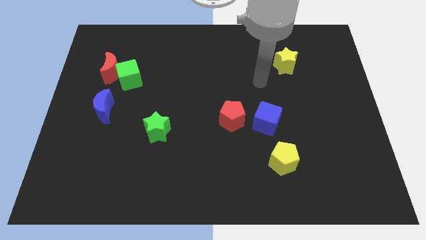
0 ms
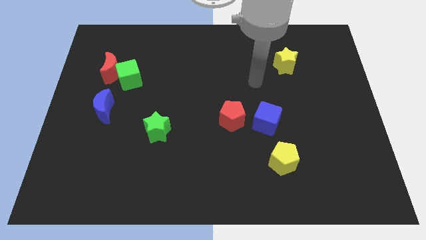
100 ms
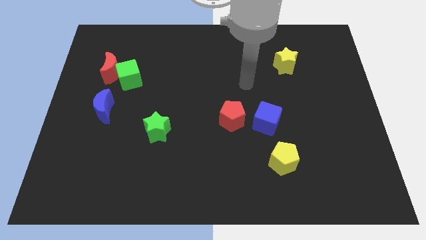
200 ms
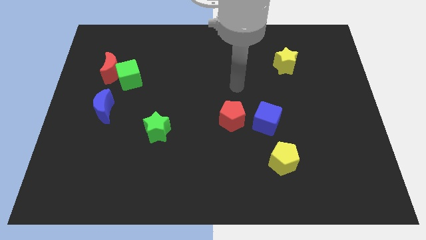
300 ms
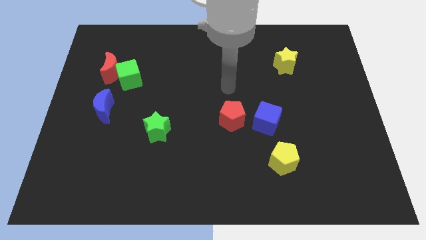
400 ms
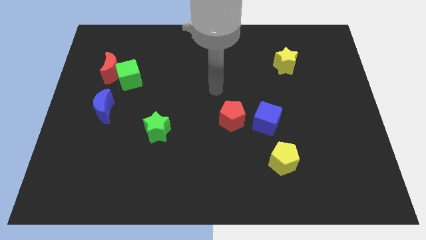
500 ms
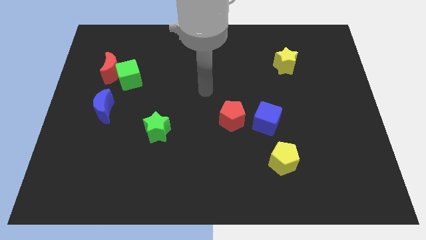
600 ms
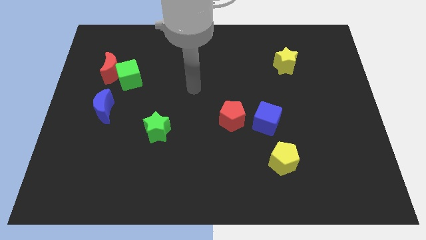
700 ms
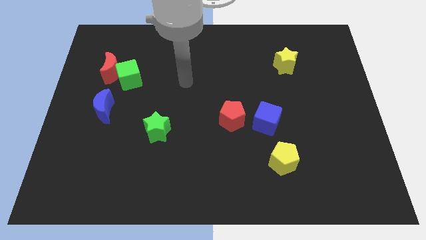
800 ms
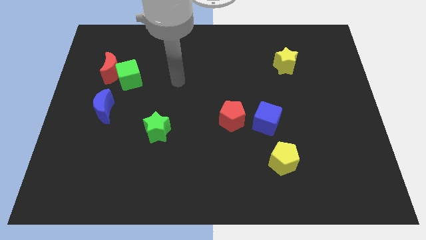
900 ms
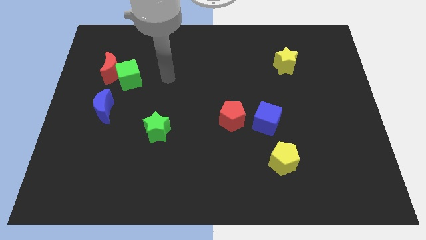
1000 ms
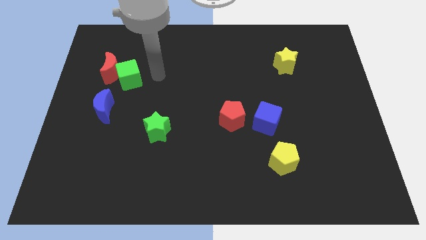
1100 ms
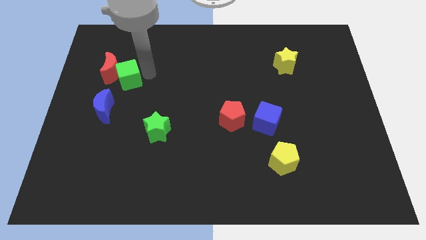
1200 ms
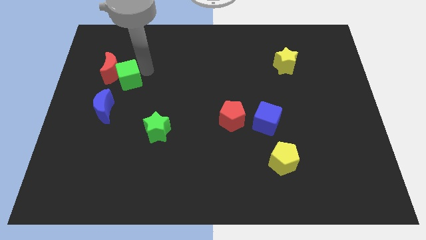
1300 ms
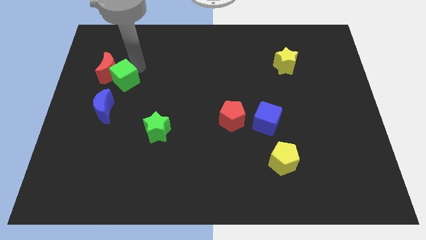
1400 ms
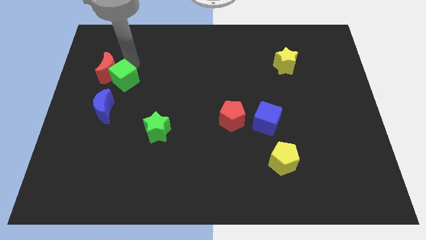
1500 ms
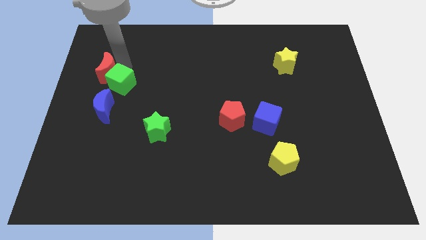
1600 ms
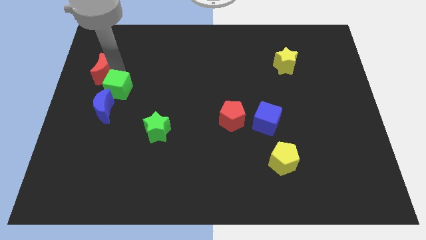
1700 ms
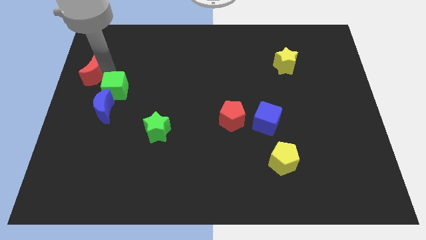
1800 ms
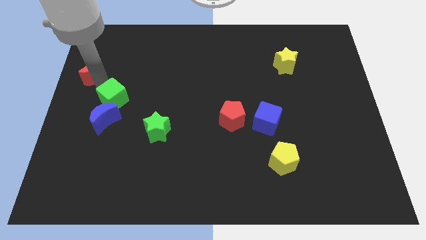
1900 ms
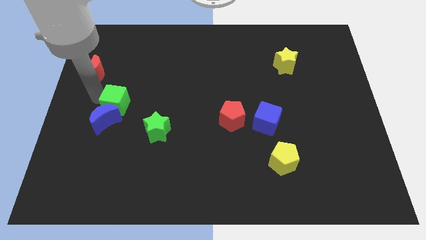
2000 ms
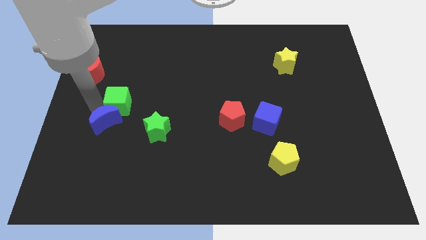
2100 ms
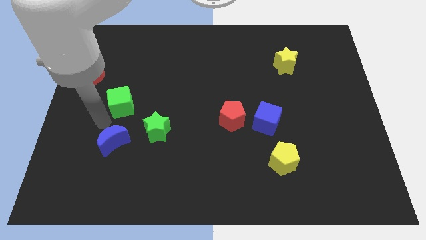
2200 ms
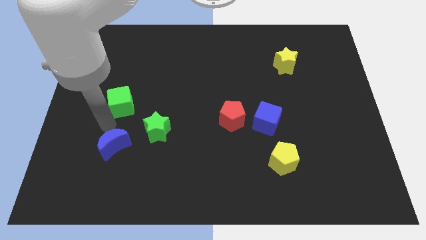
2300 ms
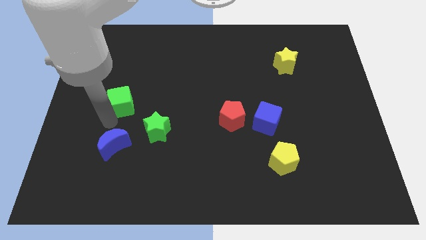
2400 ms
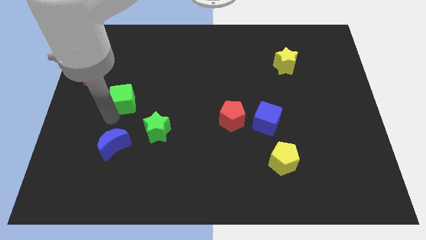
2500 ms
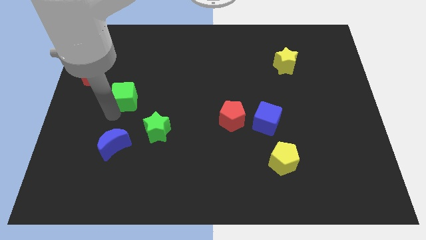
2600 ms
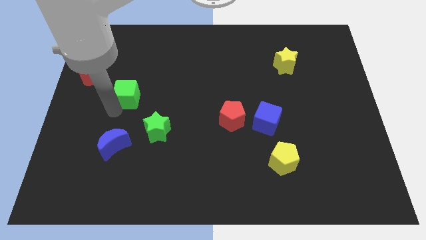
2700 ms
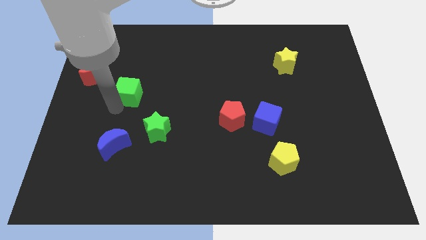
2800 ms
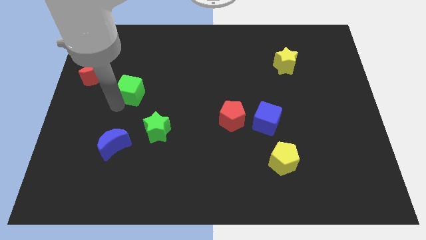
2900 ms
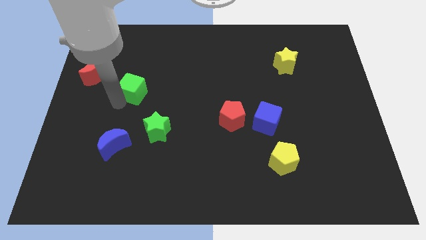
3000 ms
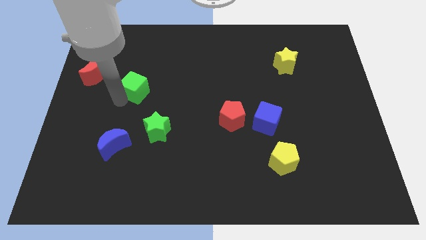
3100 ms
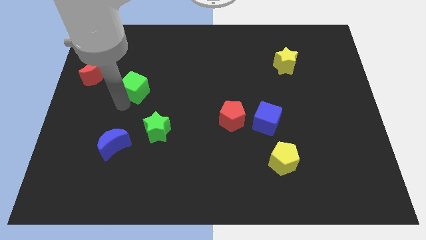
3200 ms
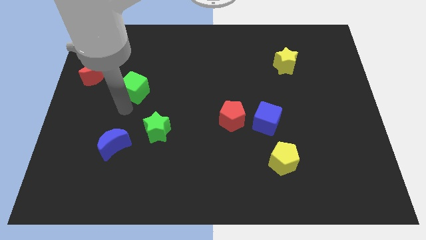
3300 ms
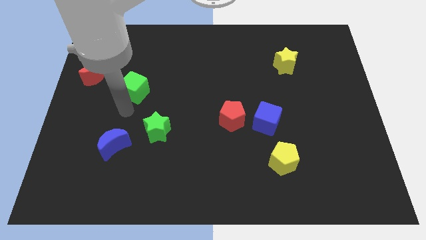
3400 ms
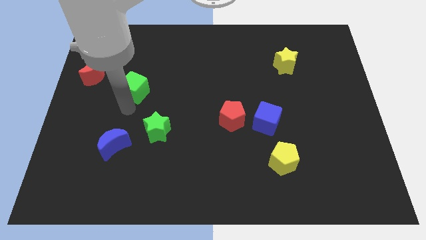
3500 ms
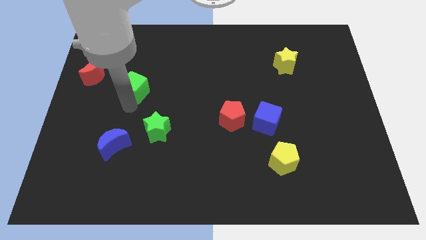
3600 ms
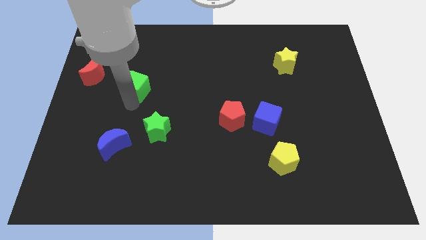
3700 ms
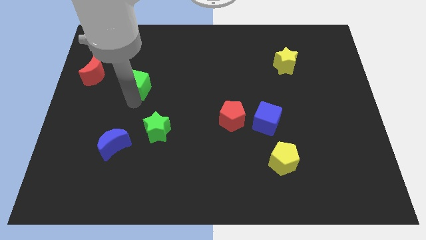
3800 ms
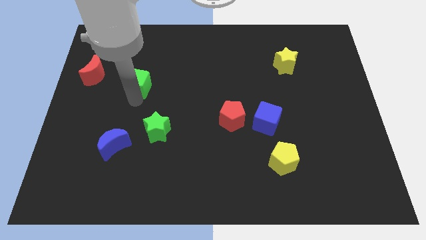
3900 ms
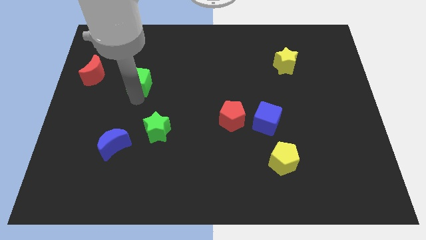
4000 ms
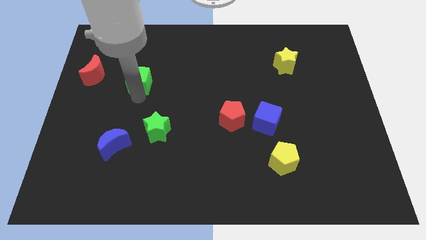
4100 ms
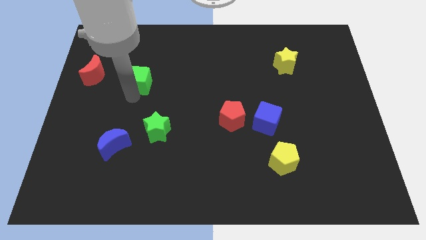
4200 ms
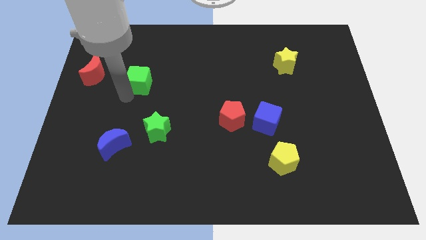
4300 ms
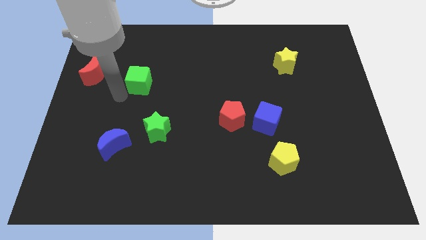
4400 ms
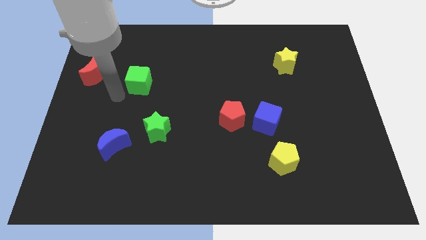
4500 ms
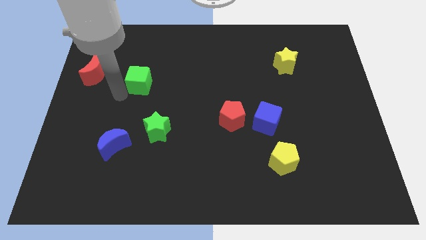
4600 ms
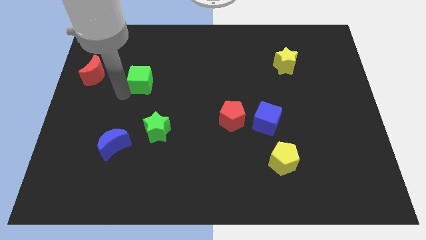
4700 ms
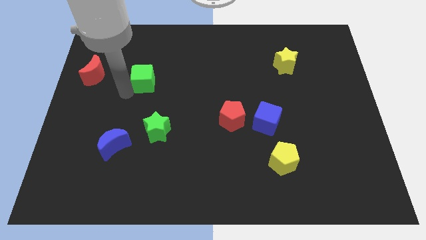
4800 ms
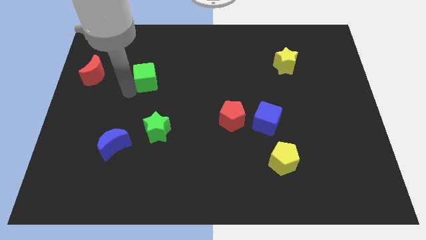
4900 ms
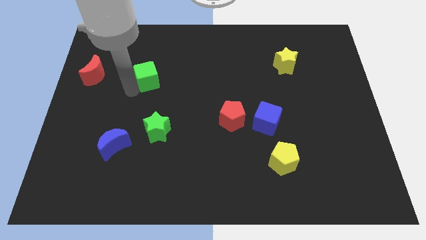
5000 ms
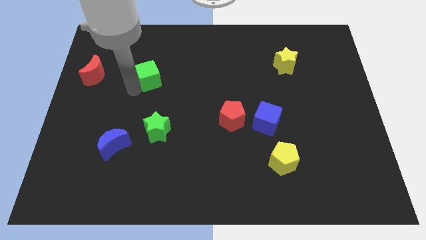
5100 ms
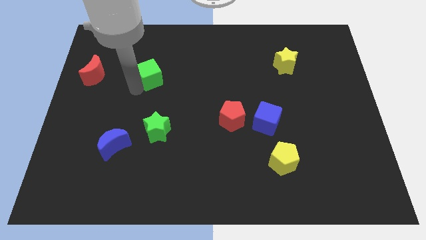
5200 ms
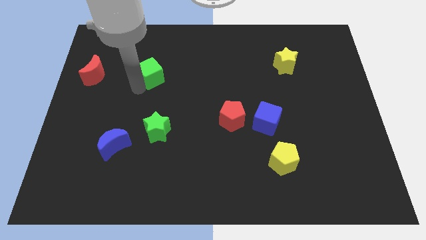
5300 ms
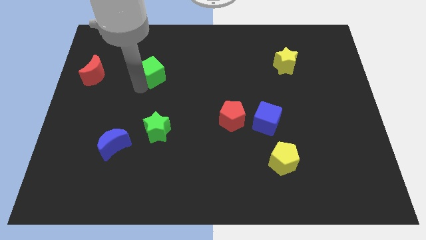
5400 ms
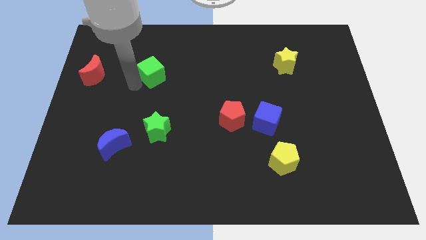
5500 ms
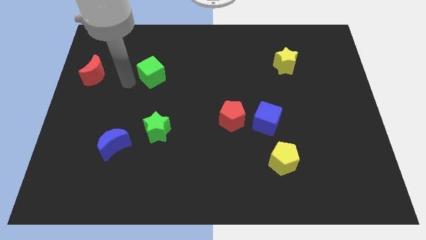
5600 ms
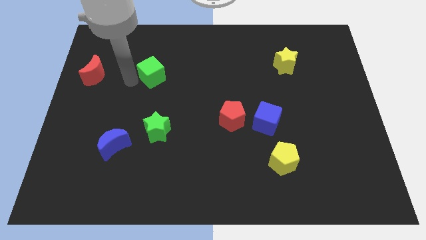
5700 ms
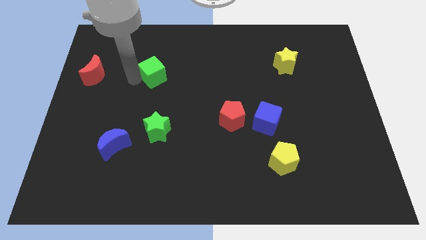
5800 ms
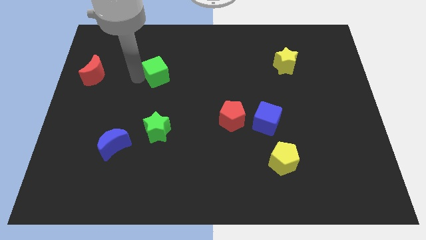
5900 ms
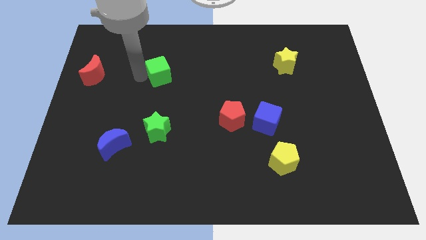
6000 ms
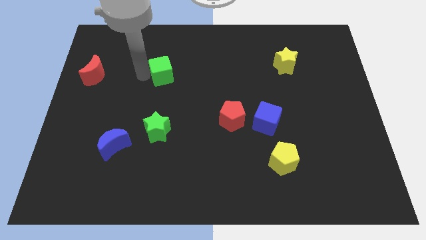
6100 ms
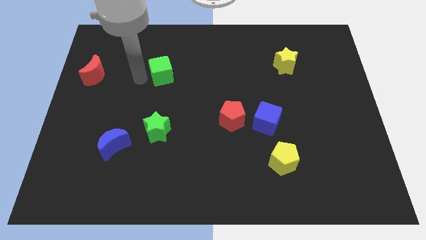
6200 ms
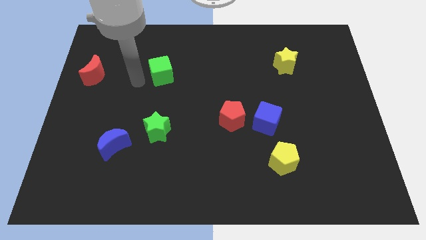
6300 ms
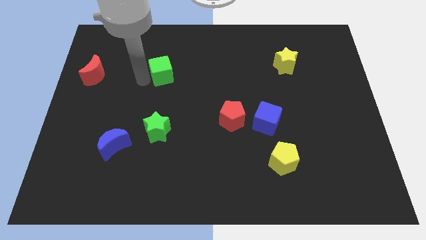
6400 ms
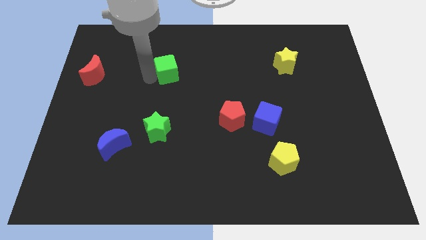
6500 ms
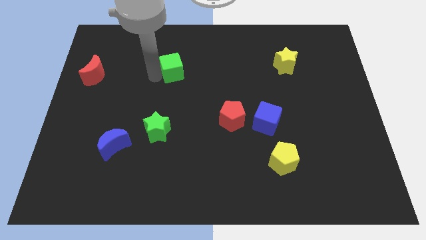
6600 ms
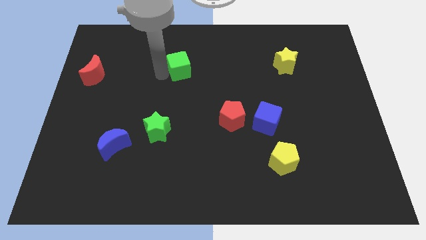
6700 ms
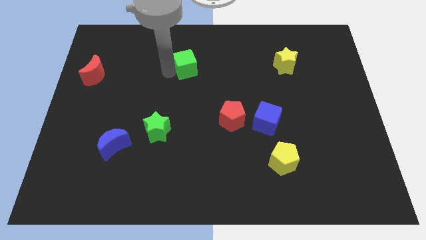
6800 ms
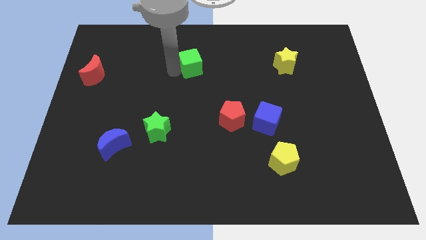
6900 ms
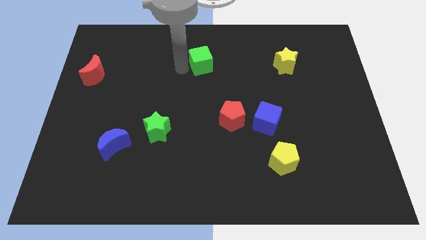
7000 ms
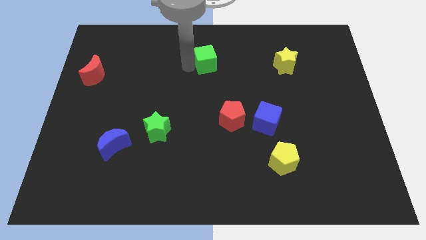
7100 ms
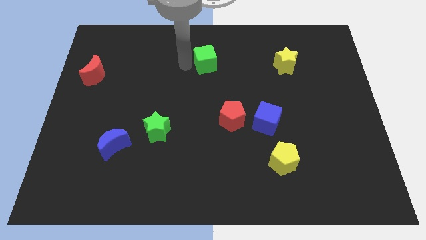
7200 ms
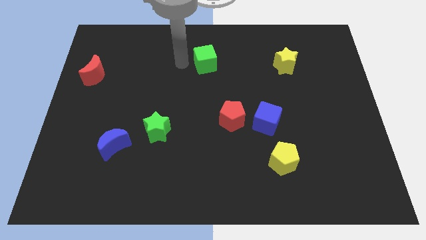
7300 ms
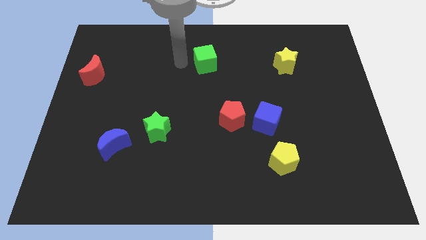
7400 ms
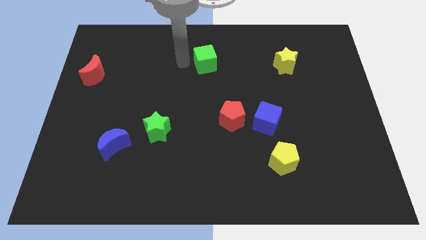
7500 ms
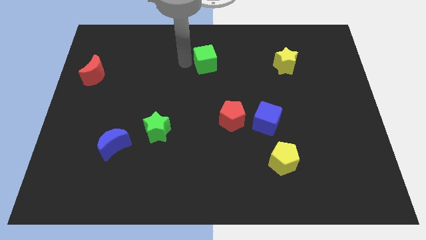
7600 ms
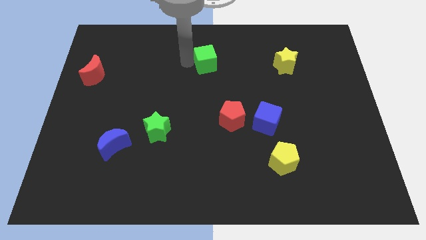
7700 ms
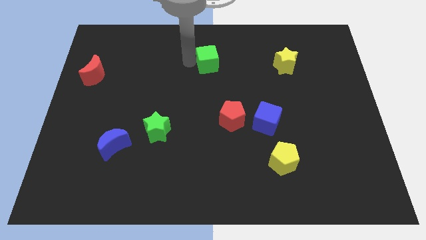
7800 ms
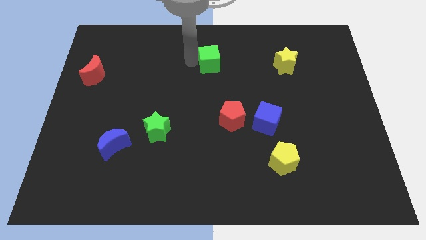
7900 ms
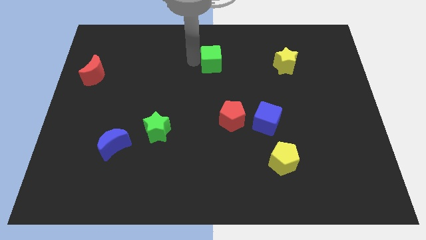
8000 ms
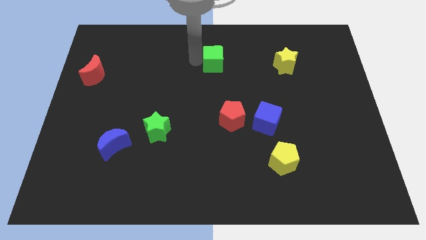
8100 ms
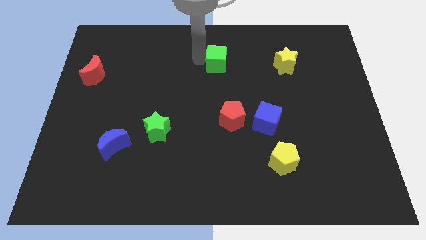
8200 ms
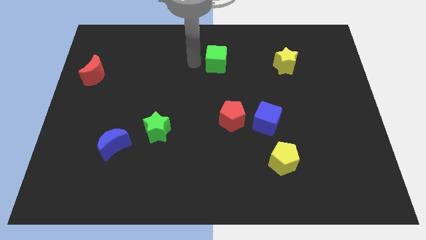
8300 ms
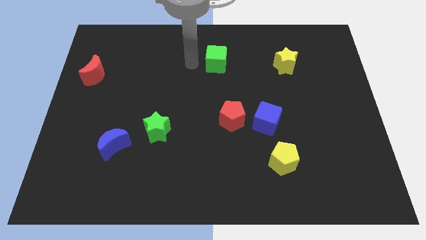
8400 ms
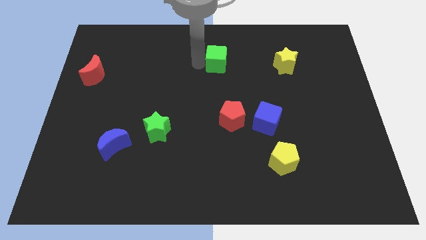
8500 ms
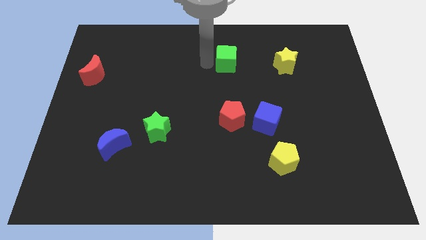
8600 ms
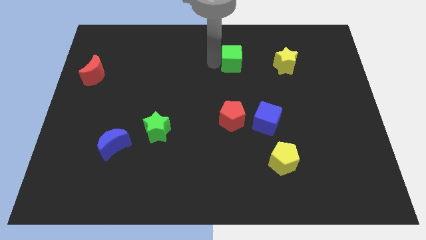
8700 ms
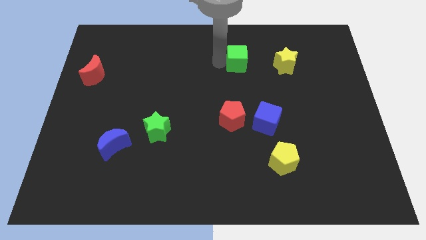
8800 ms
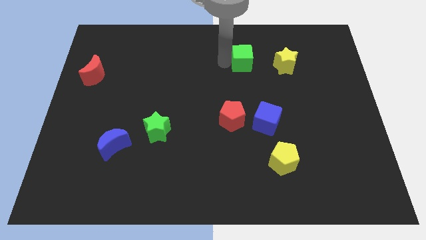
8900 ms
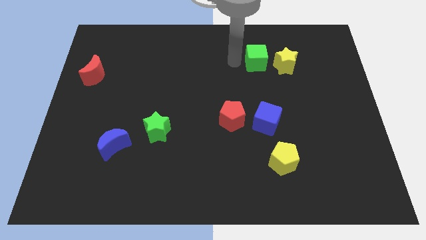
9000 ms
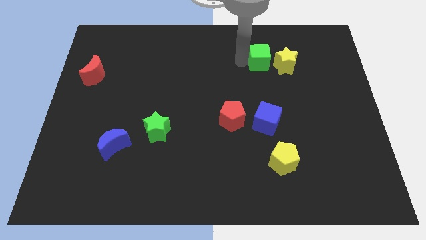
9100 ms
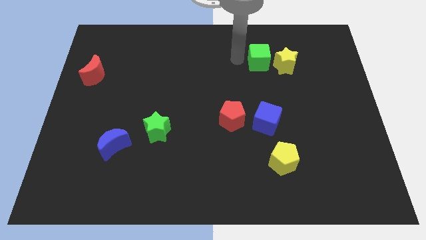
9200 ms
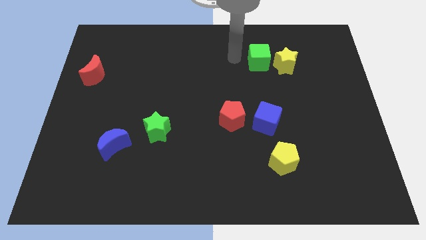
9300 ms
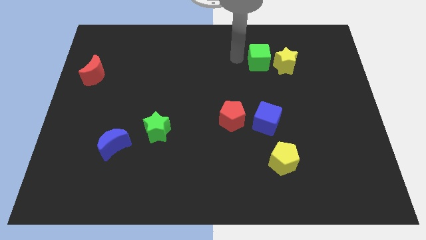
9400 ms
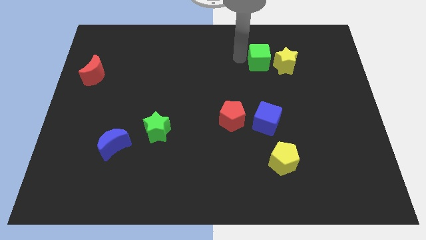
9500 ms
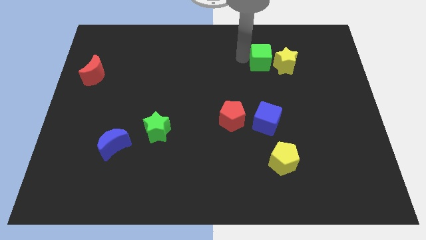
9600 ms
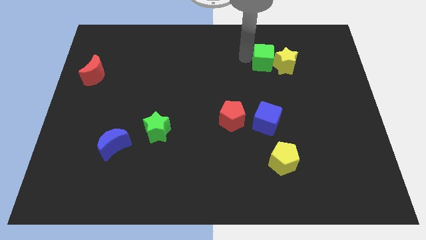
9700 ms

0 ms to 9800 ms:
put the green cube next to the yellow star
